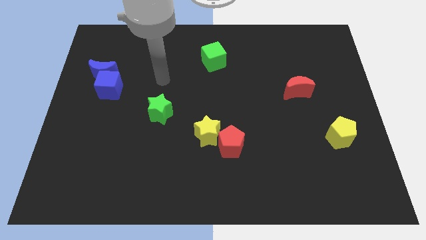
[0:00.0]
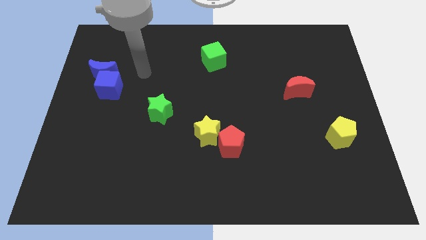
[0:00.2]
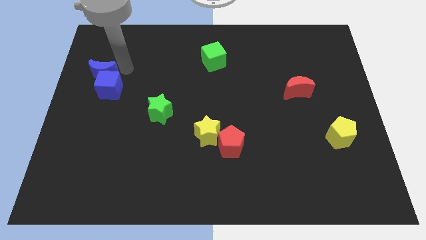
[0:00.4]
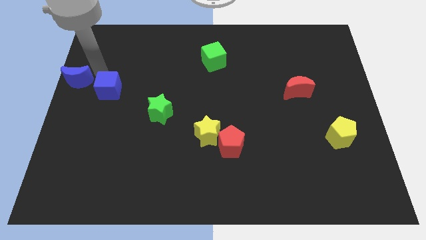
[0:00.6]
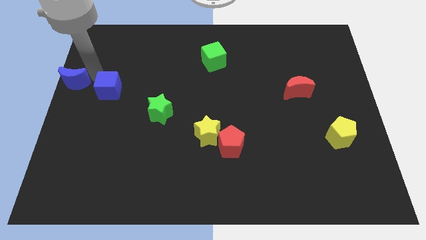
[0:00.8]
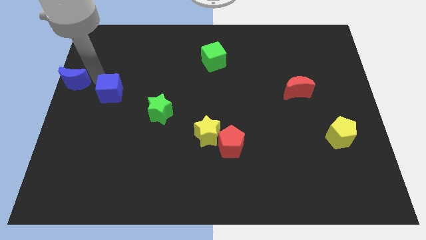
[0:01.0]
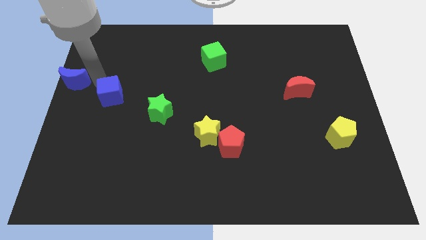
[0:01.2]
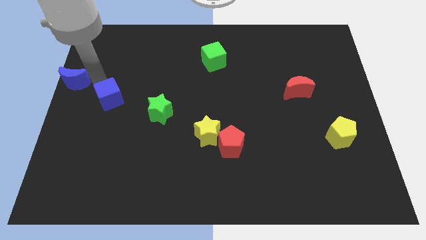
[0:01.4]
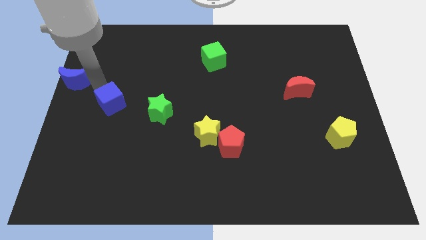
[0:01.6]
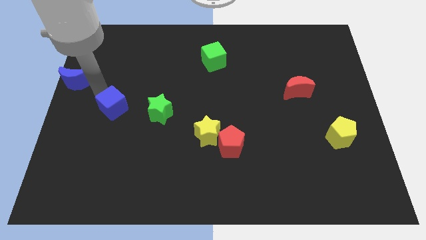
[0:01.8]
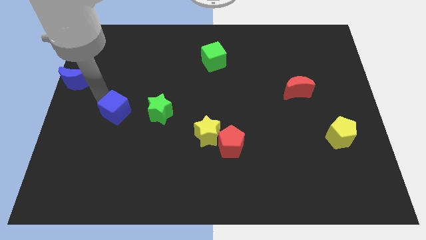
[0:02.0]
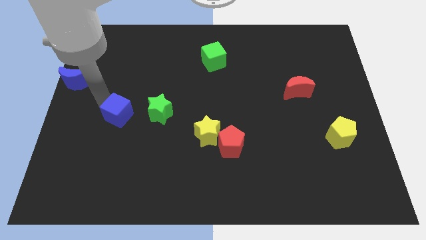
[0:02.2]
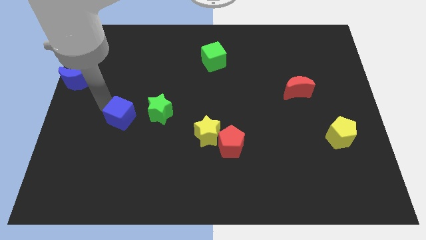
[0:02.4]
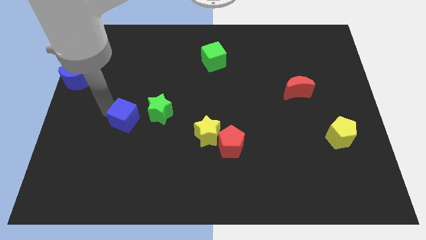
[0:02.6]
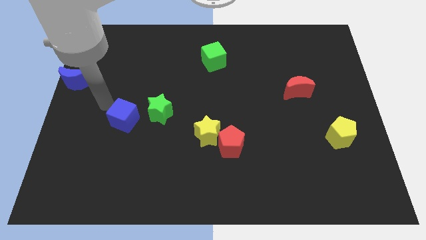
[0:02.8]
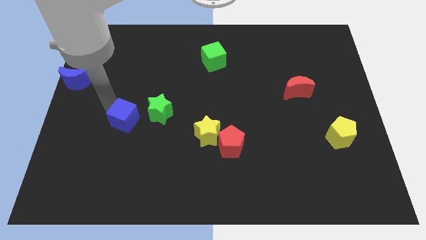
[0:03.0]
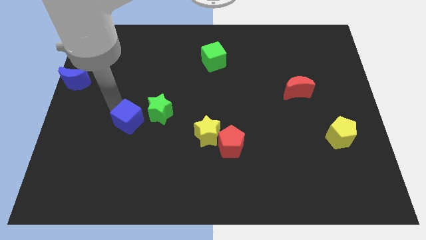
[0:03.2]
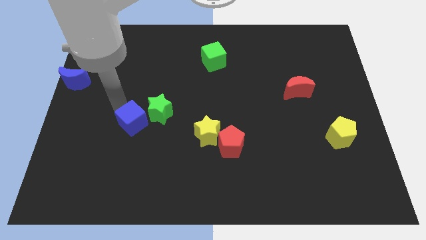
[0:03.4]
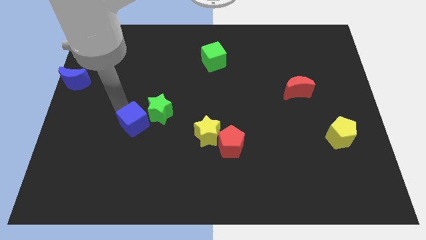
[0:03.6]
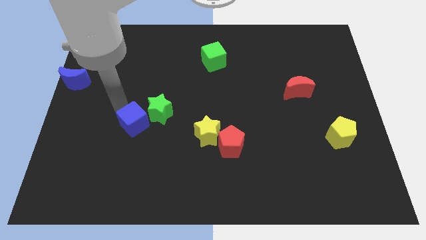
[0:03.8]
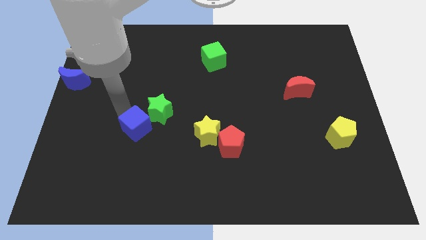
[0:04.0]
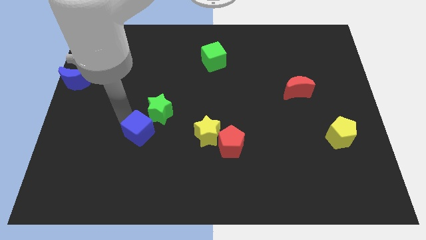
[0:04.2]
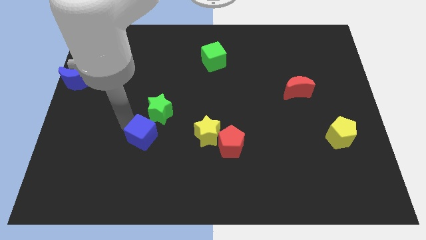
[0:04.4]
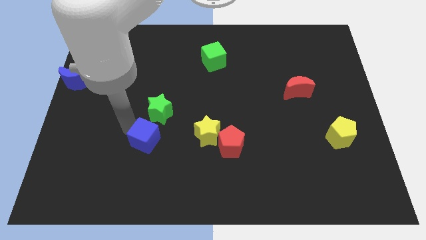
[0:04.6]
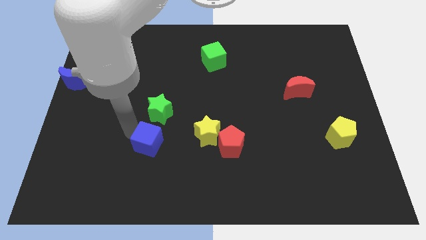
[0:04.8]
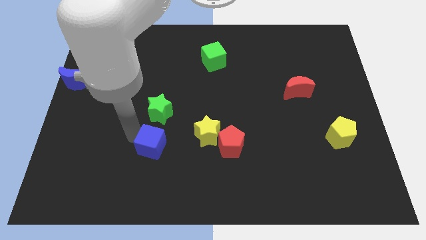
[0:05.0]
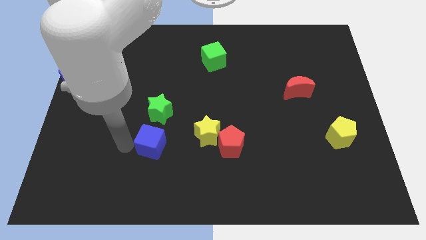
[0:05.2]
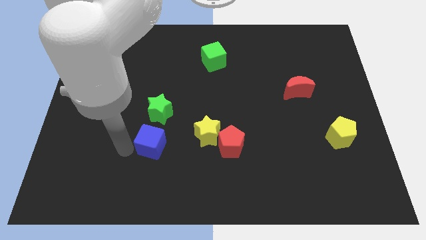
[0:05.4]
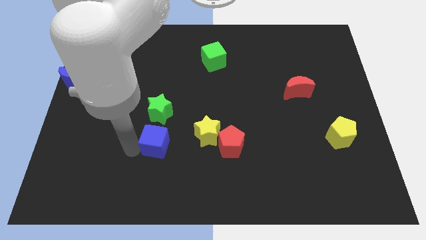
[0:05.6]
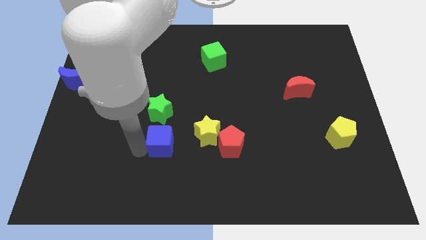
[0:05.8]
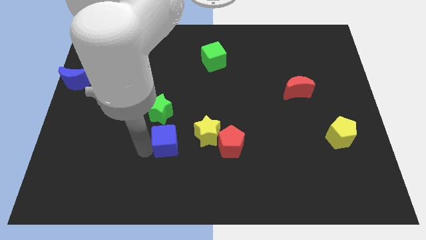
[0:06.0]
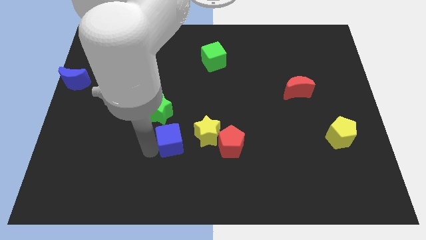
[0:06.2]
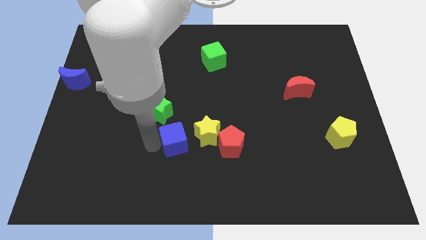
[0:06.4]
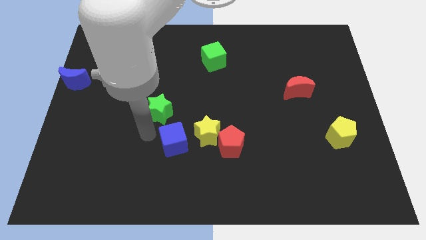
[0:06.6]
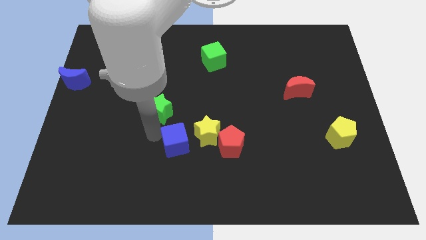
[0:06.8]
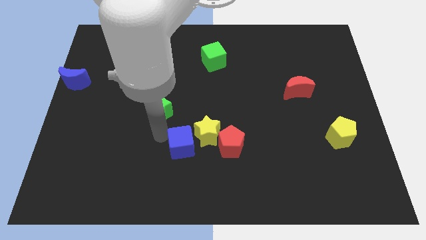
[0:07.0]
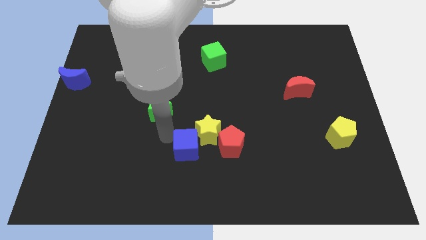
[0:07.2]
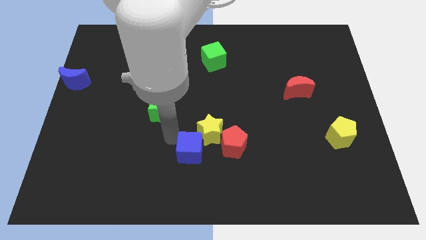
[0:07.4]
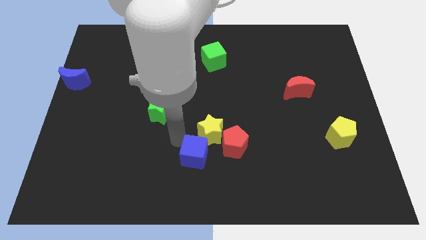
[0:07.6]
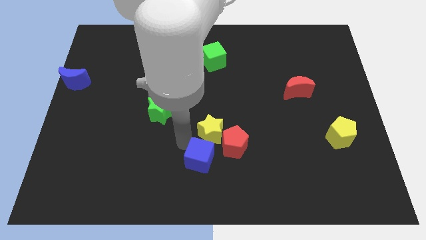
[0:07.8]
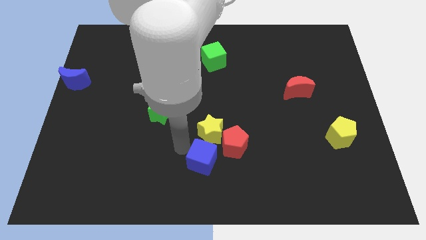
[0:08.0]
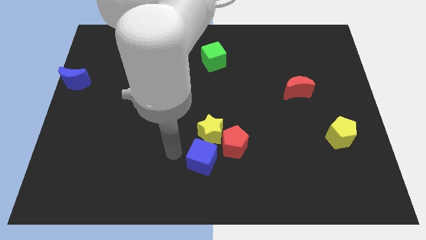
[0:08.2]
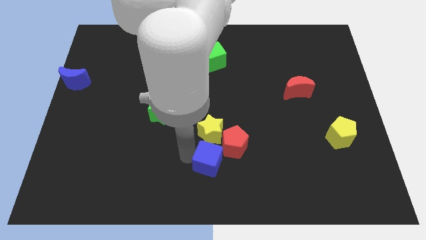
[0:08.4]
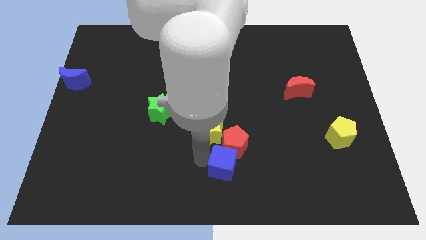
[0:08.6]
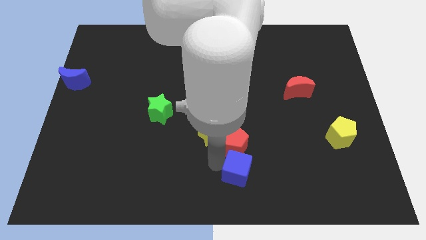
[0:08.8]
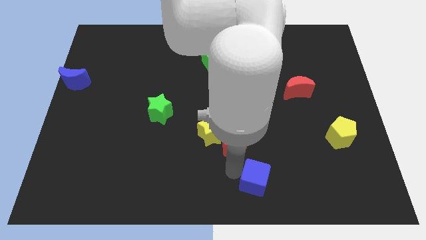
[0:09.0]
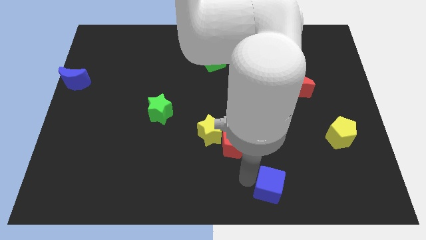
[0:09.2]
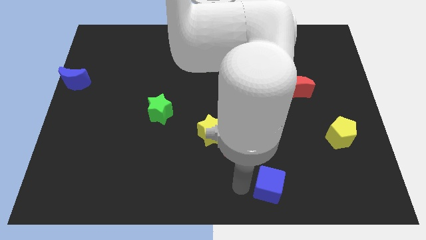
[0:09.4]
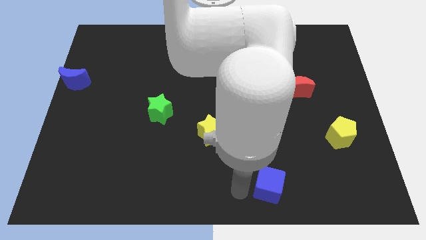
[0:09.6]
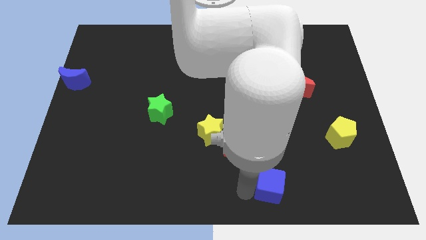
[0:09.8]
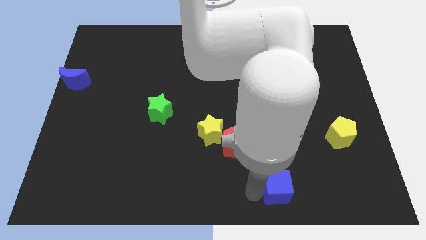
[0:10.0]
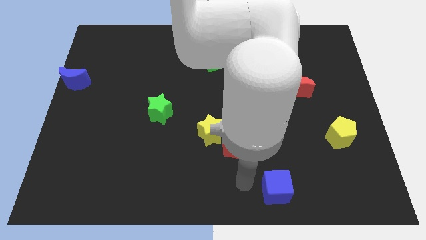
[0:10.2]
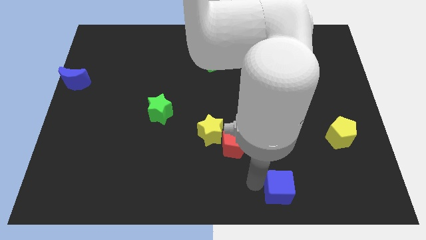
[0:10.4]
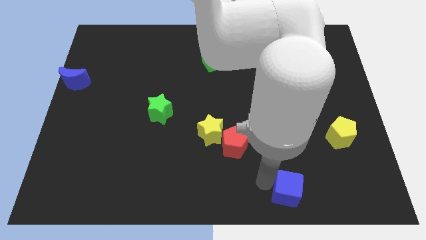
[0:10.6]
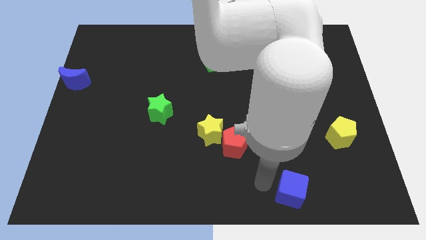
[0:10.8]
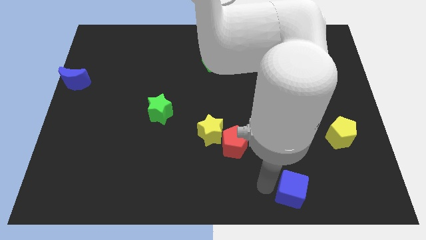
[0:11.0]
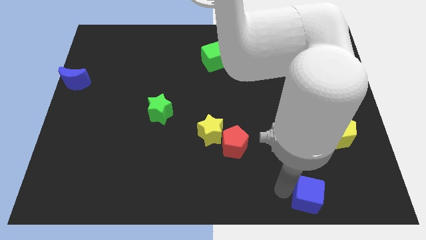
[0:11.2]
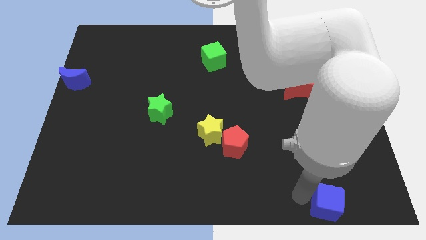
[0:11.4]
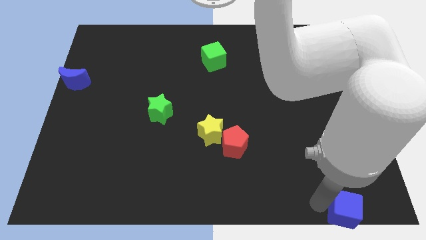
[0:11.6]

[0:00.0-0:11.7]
move the blue cube to the bottom right of the board

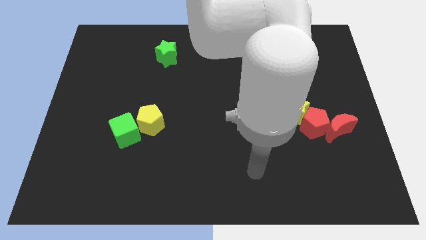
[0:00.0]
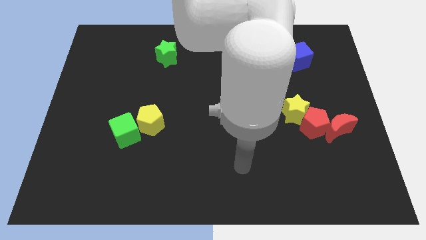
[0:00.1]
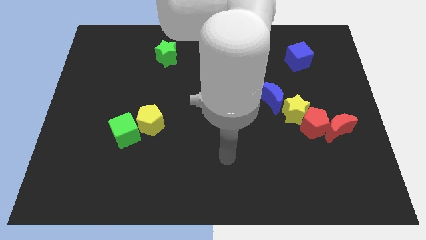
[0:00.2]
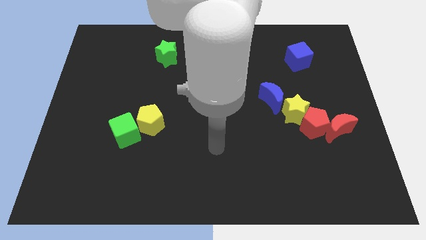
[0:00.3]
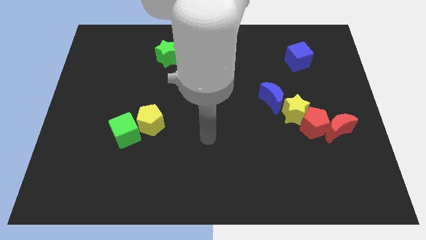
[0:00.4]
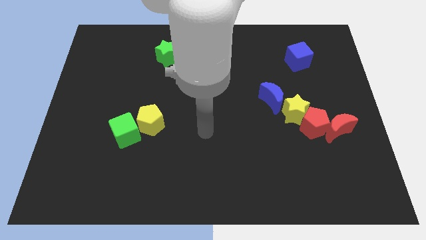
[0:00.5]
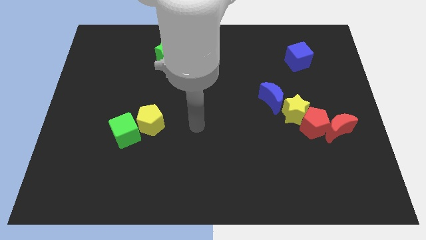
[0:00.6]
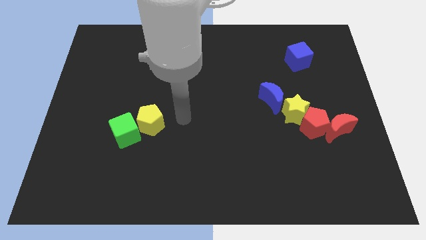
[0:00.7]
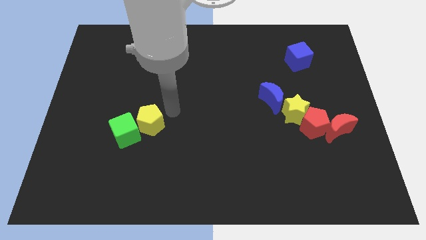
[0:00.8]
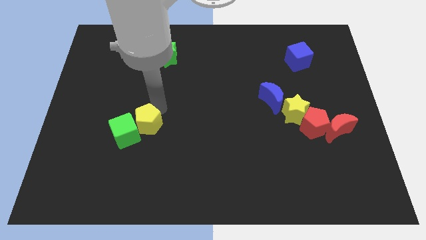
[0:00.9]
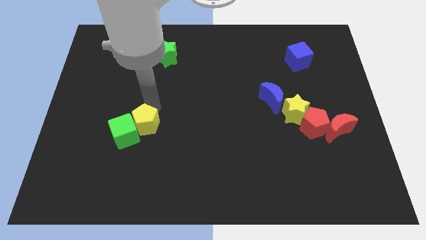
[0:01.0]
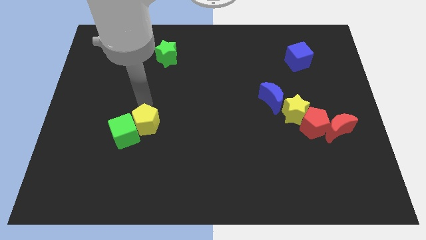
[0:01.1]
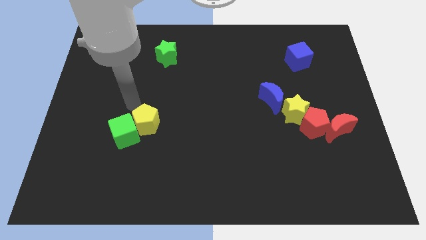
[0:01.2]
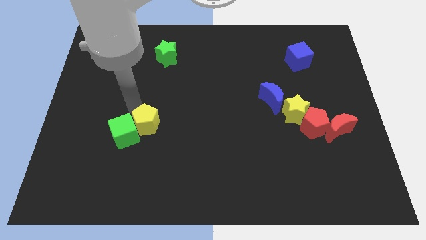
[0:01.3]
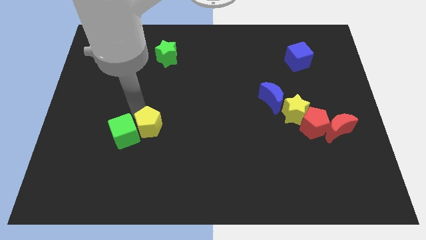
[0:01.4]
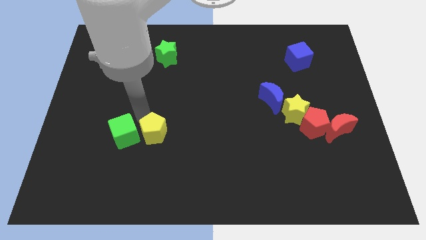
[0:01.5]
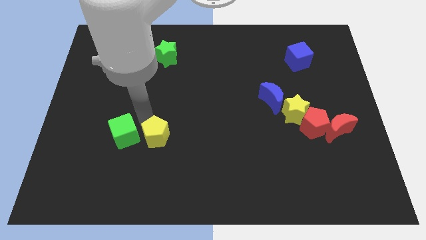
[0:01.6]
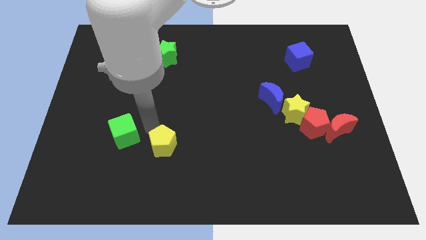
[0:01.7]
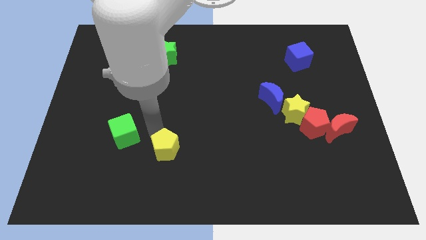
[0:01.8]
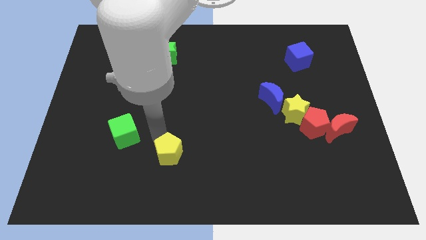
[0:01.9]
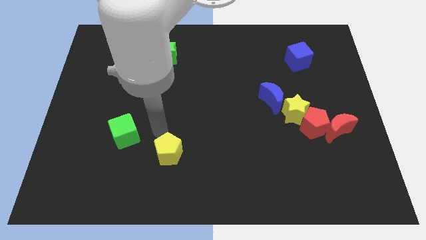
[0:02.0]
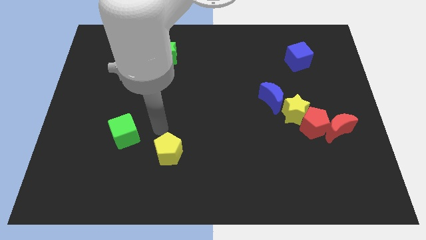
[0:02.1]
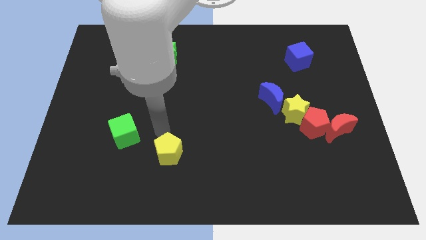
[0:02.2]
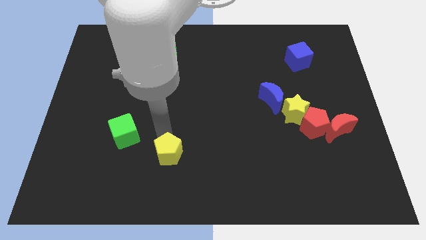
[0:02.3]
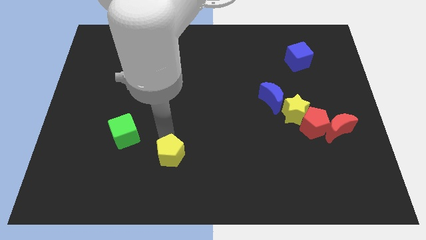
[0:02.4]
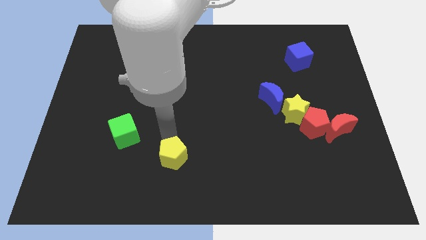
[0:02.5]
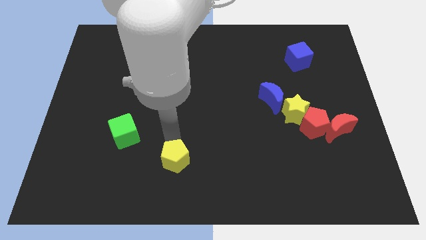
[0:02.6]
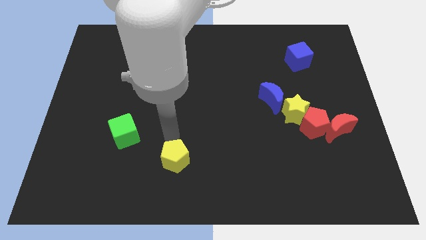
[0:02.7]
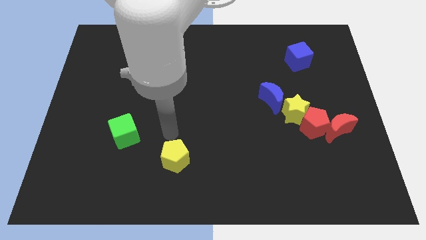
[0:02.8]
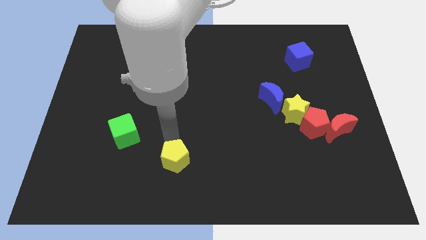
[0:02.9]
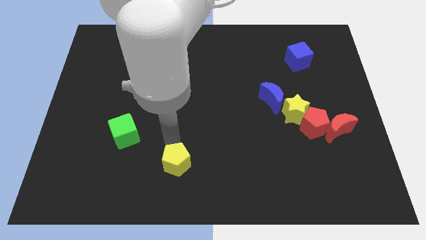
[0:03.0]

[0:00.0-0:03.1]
put the yellow pentagon to the bottom
